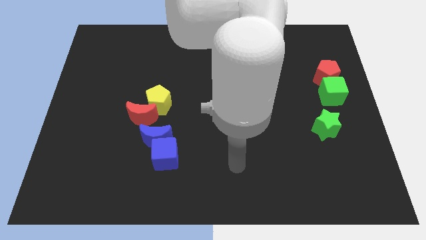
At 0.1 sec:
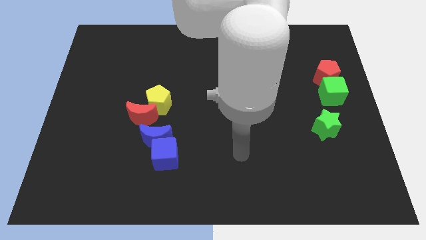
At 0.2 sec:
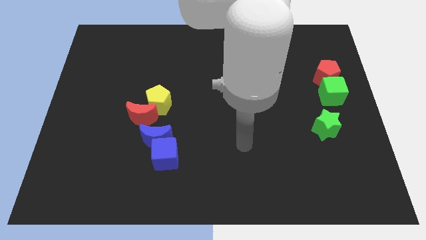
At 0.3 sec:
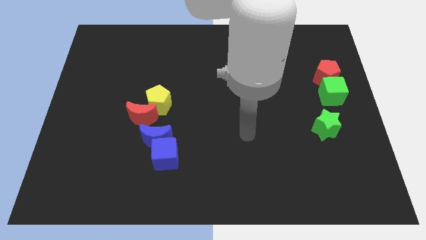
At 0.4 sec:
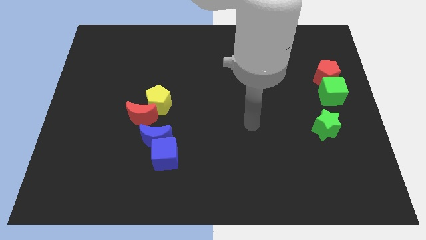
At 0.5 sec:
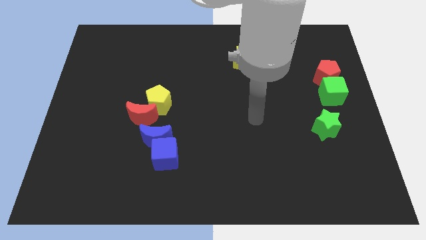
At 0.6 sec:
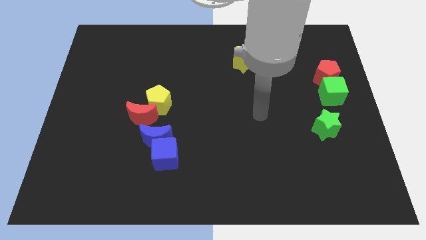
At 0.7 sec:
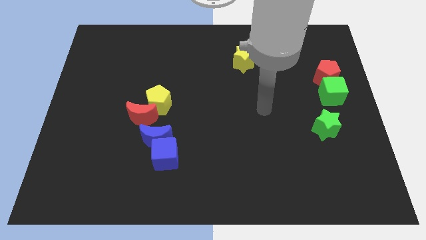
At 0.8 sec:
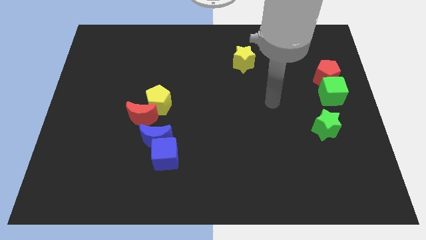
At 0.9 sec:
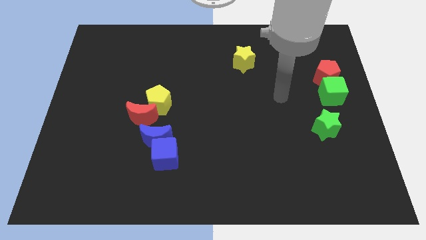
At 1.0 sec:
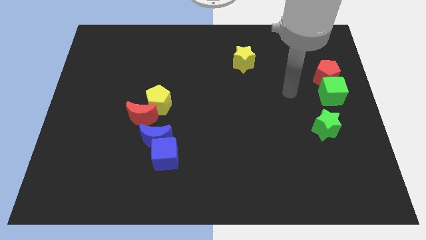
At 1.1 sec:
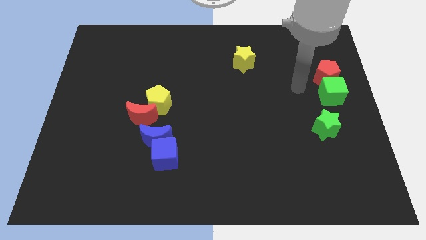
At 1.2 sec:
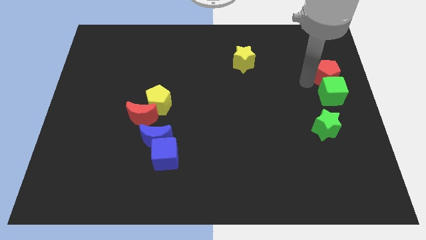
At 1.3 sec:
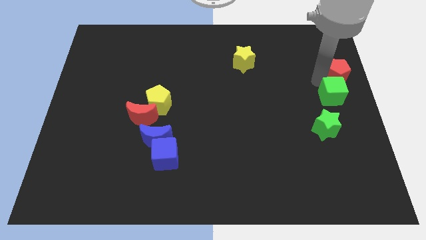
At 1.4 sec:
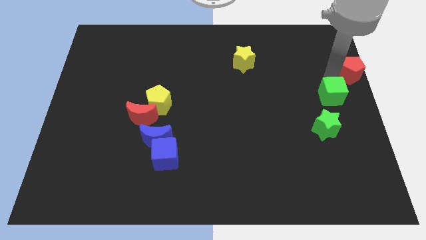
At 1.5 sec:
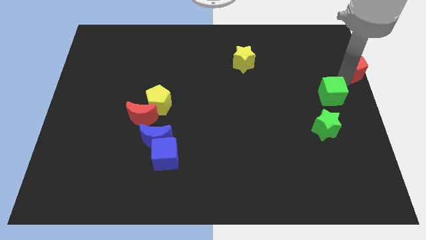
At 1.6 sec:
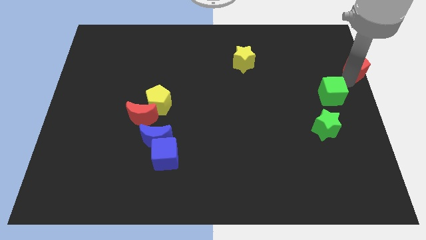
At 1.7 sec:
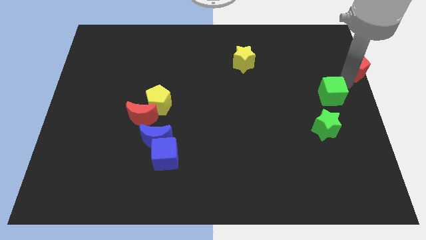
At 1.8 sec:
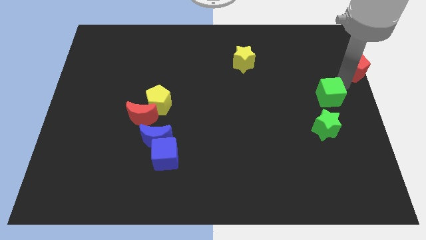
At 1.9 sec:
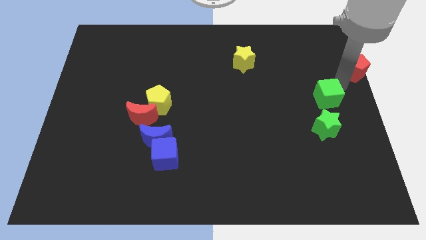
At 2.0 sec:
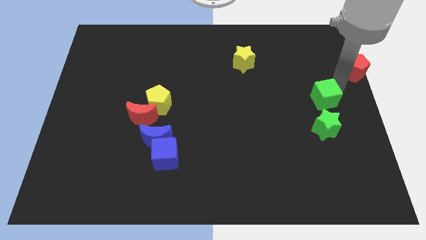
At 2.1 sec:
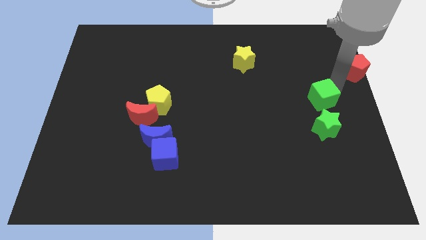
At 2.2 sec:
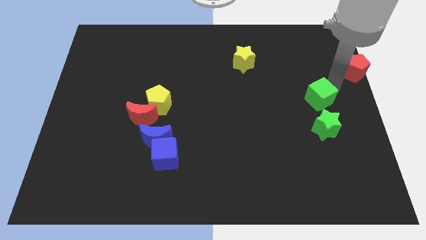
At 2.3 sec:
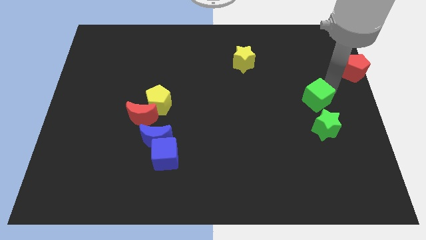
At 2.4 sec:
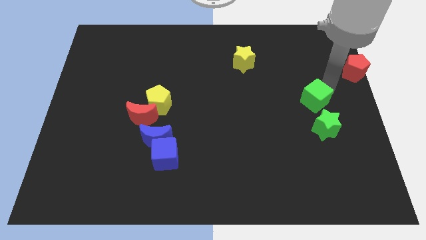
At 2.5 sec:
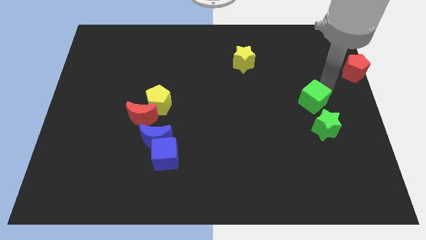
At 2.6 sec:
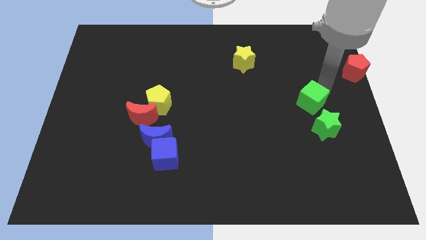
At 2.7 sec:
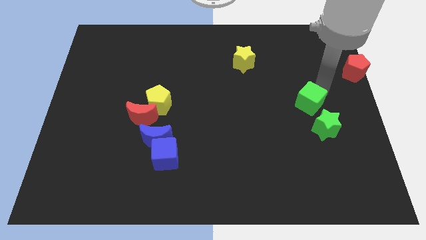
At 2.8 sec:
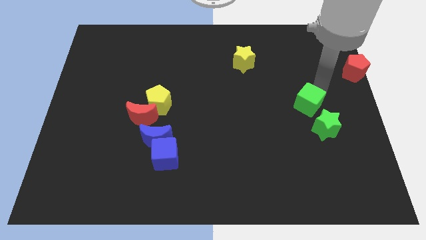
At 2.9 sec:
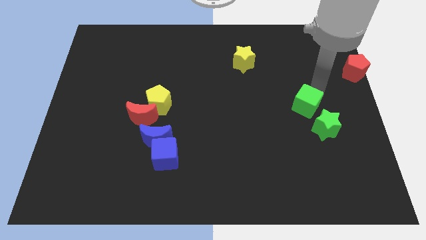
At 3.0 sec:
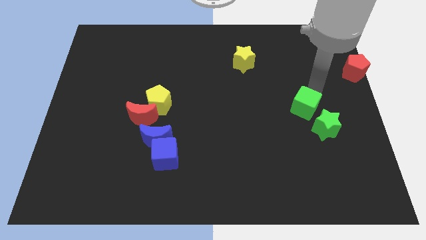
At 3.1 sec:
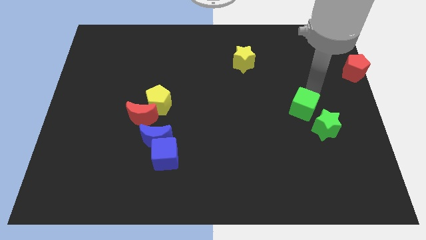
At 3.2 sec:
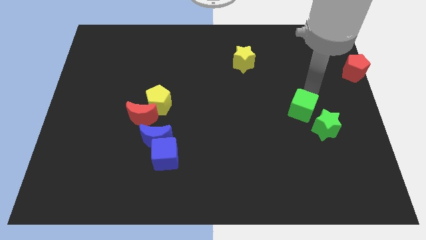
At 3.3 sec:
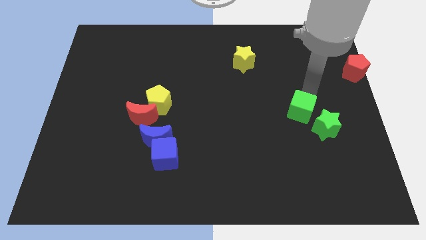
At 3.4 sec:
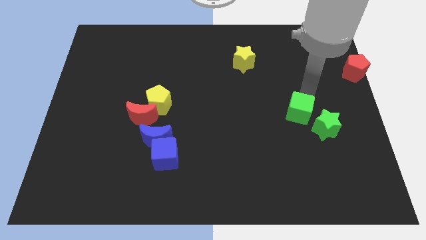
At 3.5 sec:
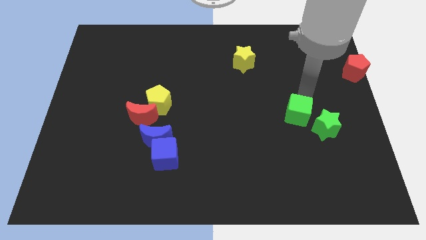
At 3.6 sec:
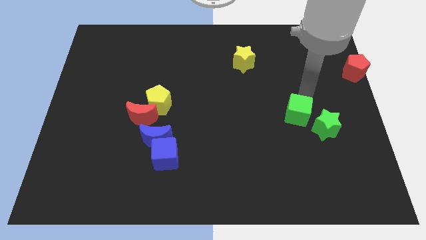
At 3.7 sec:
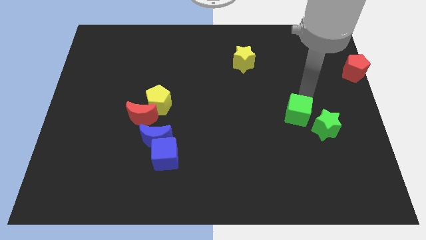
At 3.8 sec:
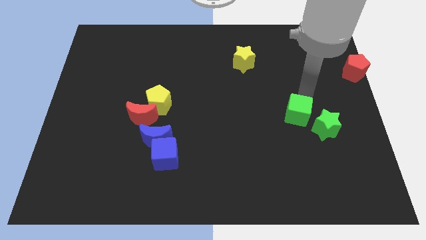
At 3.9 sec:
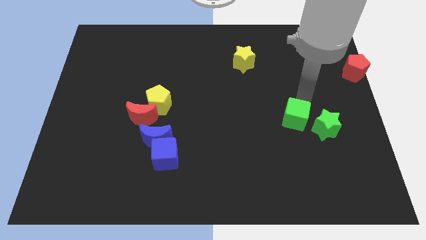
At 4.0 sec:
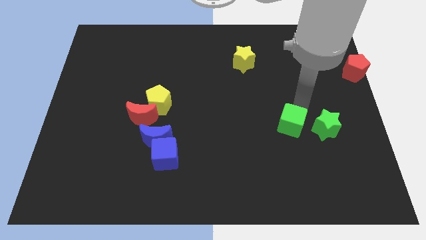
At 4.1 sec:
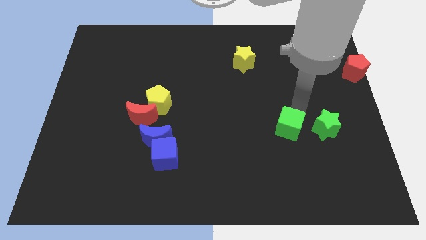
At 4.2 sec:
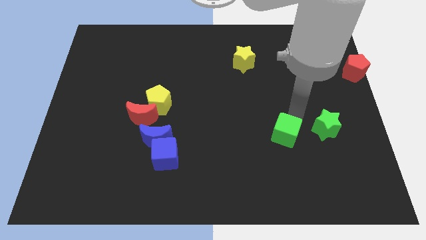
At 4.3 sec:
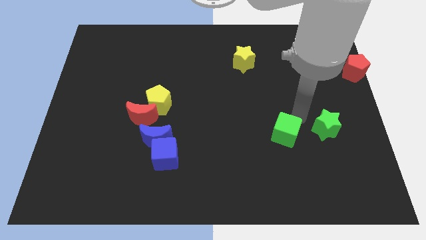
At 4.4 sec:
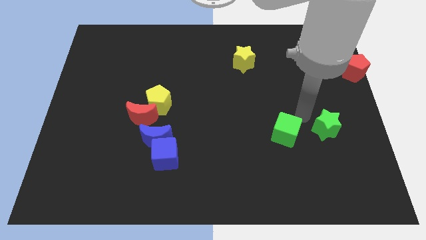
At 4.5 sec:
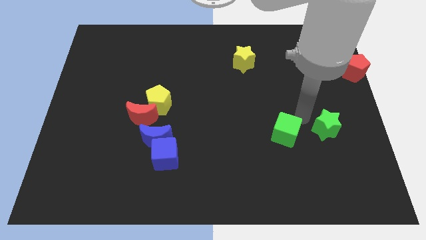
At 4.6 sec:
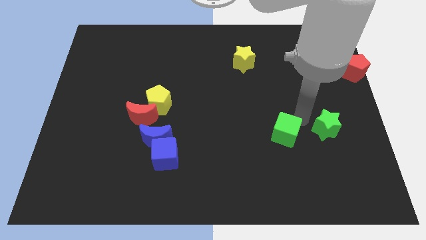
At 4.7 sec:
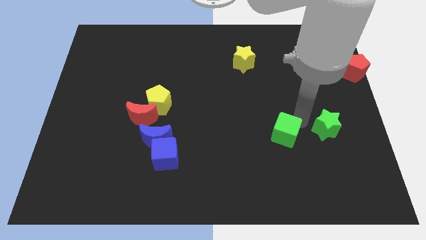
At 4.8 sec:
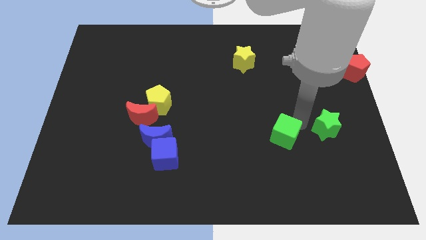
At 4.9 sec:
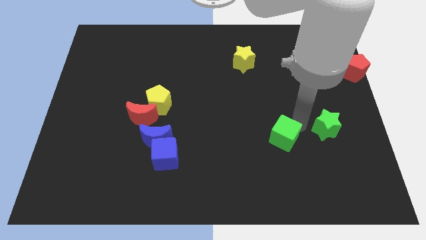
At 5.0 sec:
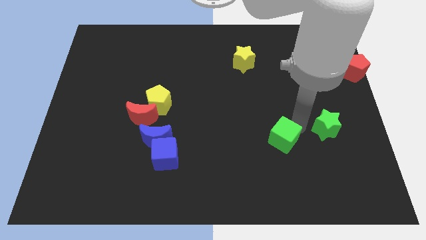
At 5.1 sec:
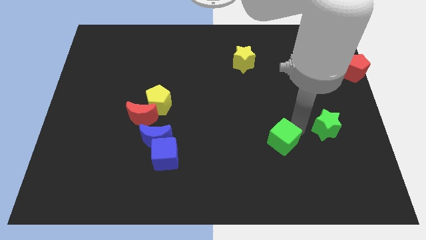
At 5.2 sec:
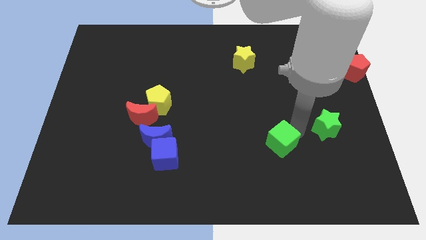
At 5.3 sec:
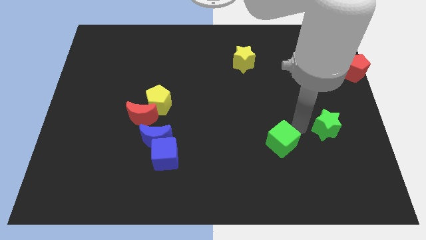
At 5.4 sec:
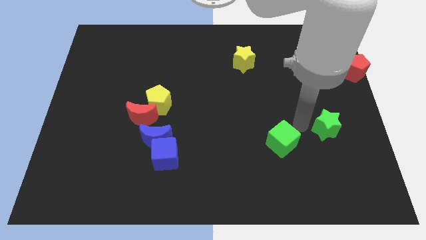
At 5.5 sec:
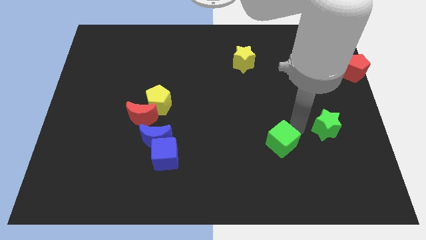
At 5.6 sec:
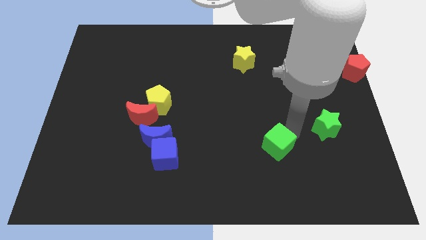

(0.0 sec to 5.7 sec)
slide the green cube downwards and to the left

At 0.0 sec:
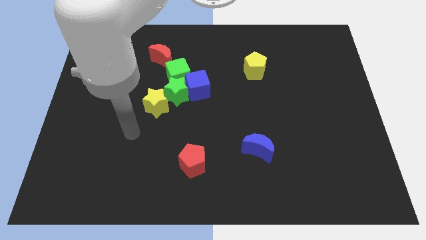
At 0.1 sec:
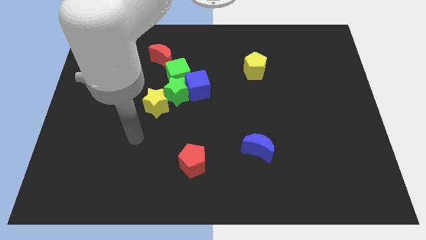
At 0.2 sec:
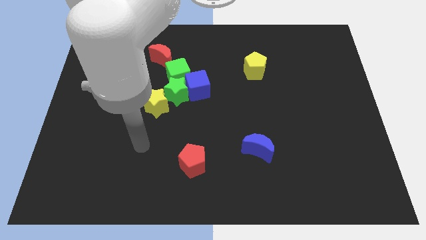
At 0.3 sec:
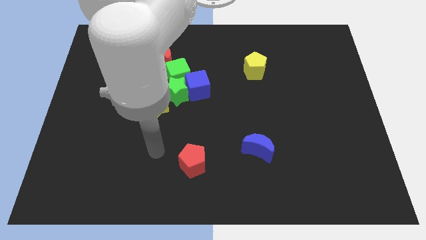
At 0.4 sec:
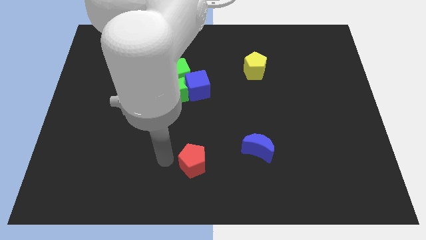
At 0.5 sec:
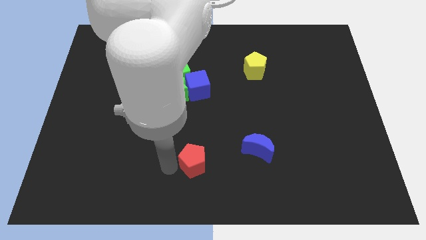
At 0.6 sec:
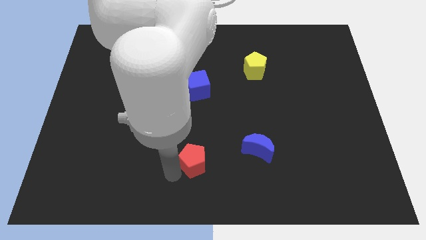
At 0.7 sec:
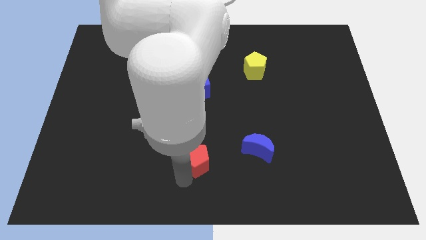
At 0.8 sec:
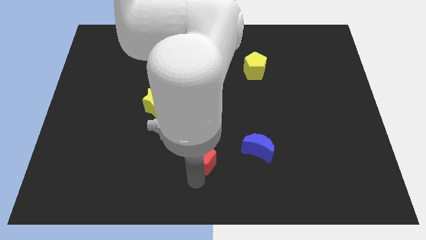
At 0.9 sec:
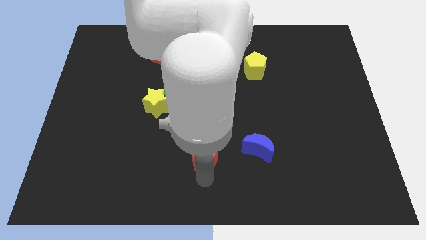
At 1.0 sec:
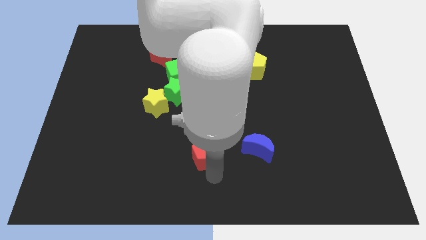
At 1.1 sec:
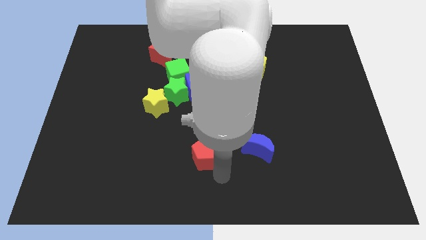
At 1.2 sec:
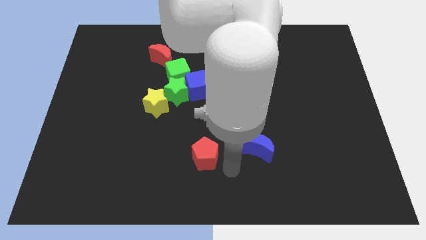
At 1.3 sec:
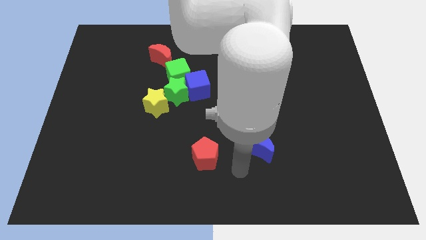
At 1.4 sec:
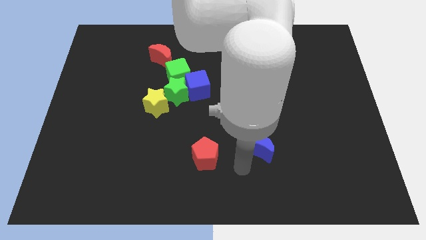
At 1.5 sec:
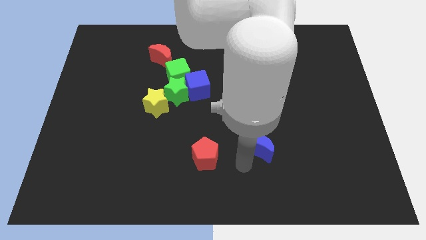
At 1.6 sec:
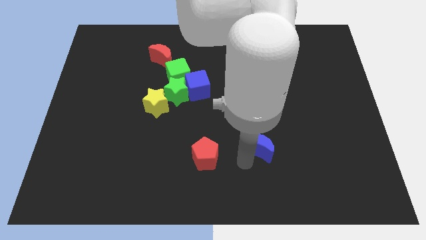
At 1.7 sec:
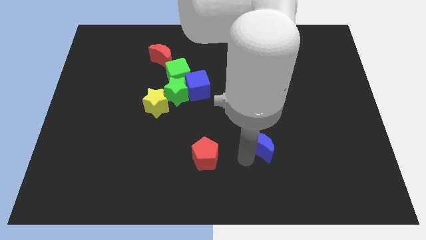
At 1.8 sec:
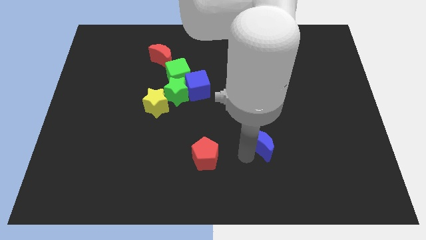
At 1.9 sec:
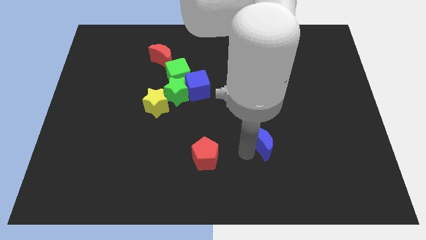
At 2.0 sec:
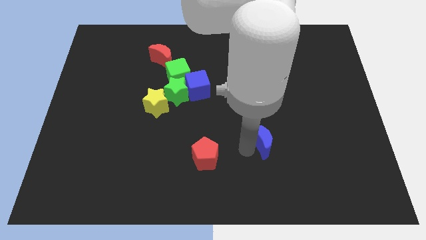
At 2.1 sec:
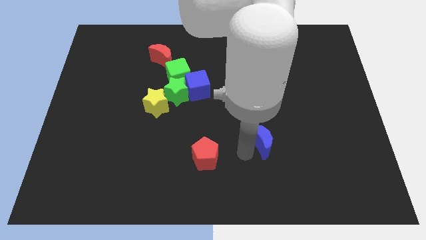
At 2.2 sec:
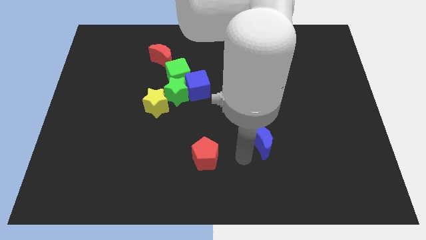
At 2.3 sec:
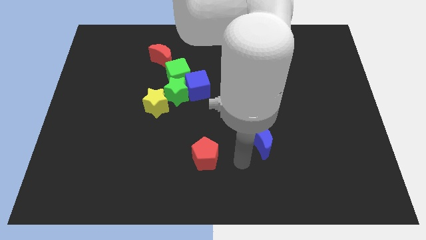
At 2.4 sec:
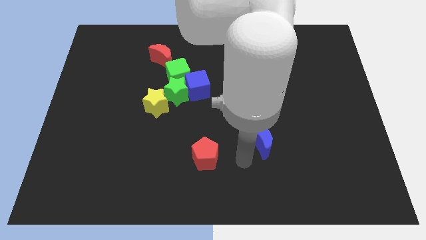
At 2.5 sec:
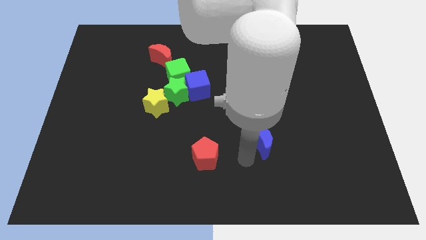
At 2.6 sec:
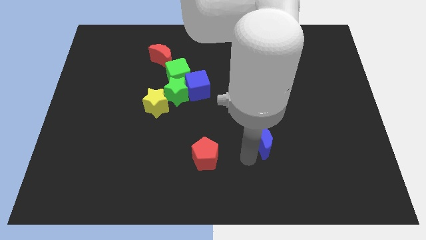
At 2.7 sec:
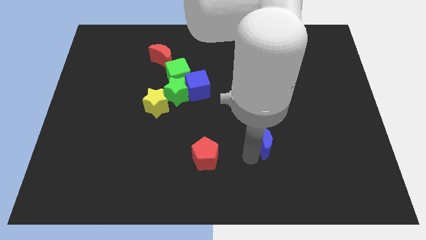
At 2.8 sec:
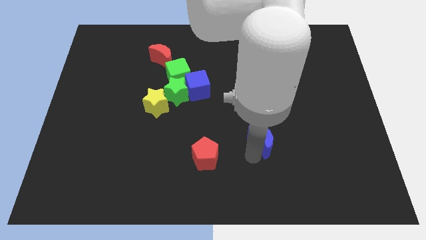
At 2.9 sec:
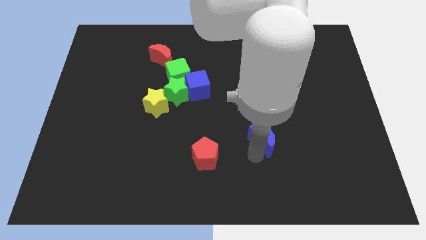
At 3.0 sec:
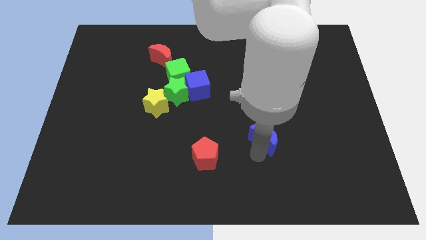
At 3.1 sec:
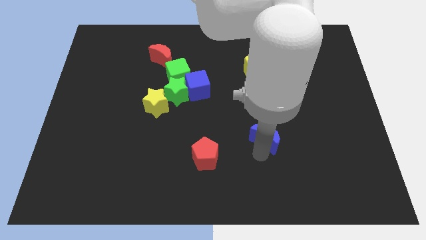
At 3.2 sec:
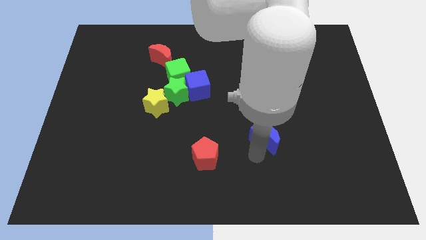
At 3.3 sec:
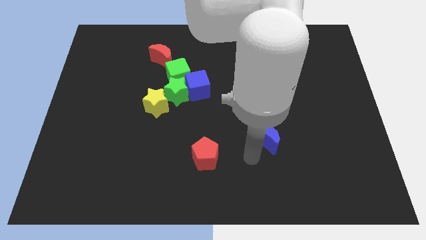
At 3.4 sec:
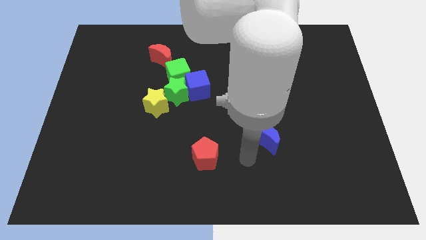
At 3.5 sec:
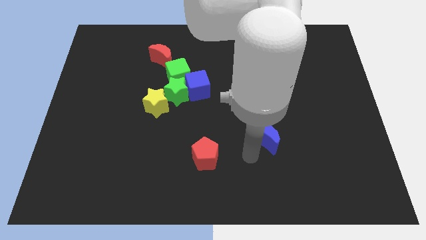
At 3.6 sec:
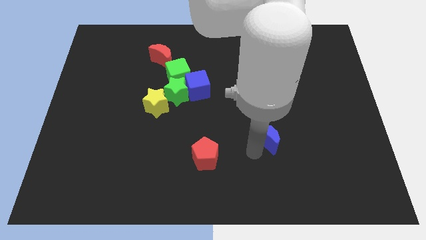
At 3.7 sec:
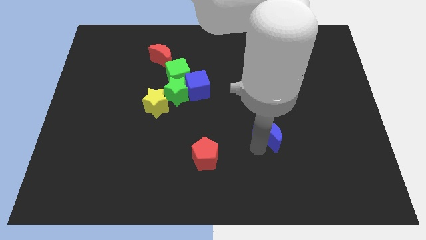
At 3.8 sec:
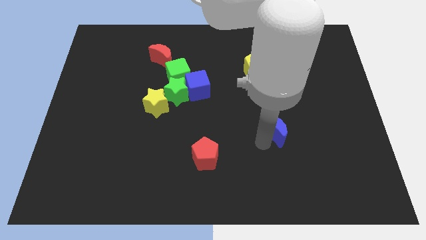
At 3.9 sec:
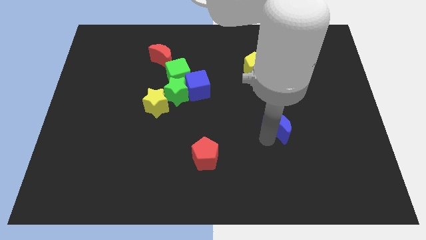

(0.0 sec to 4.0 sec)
slide the blue moon diagonally up and to the right somewhat
